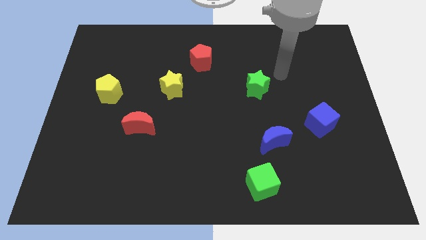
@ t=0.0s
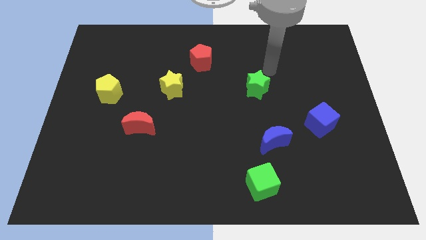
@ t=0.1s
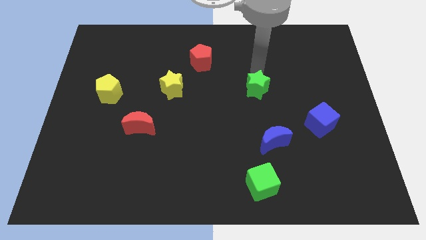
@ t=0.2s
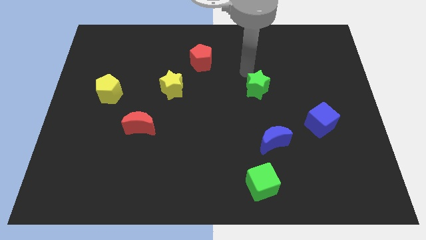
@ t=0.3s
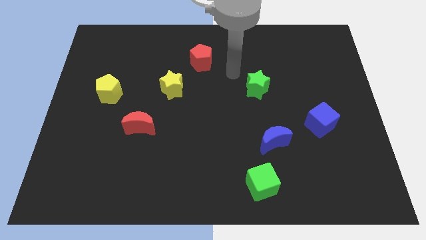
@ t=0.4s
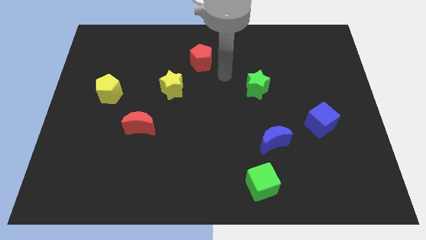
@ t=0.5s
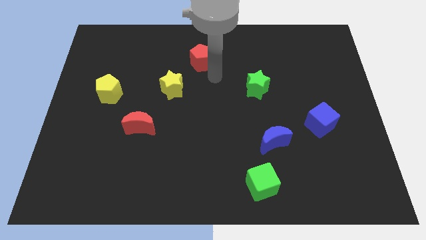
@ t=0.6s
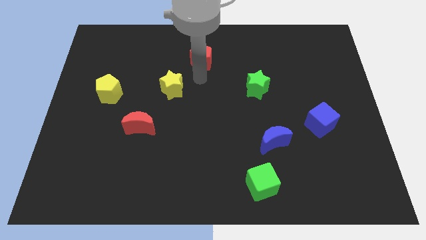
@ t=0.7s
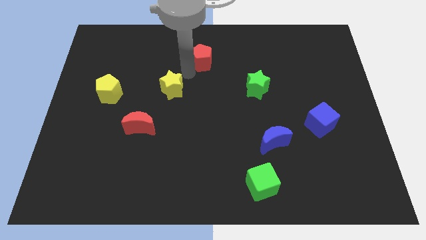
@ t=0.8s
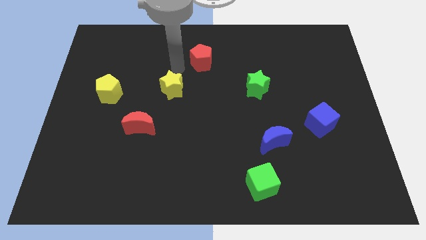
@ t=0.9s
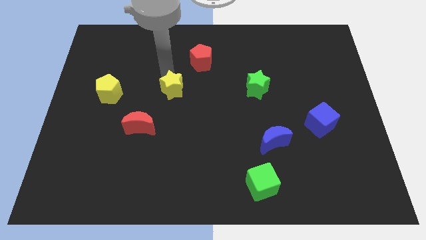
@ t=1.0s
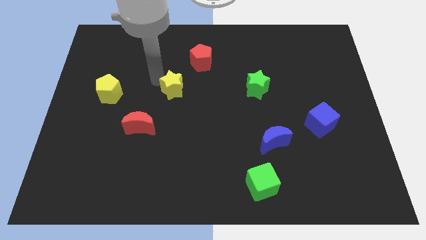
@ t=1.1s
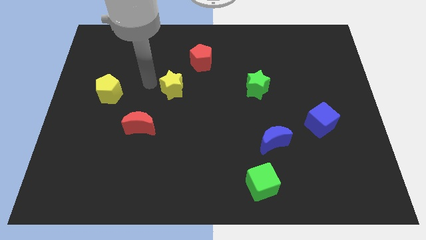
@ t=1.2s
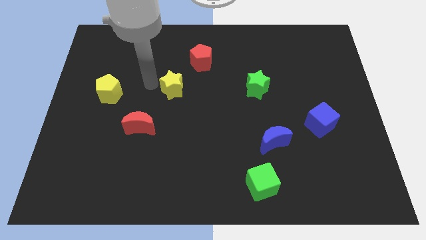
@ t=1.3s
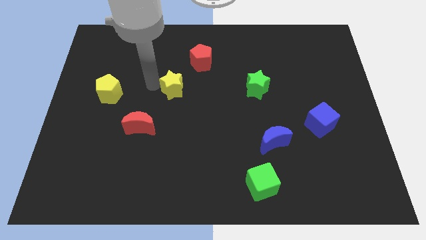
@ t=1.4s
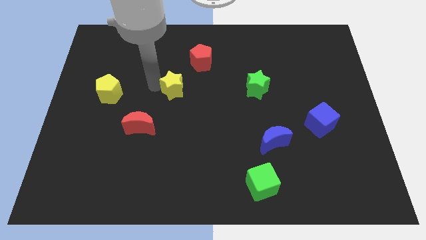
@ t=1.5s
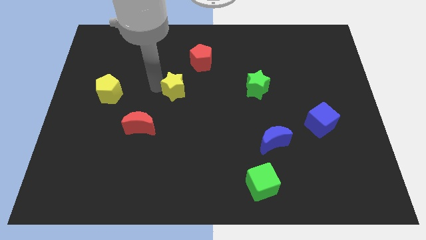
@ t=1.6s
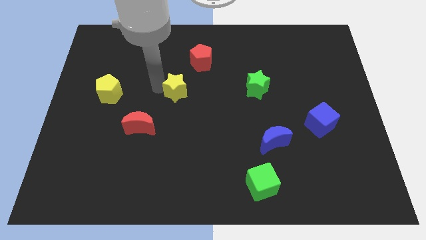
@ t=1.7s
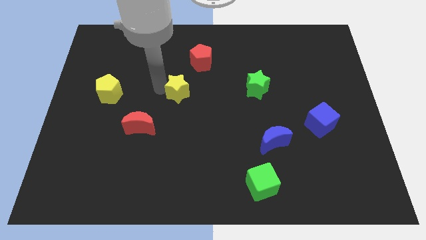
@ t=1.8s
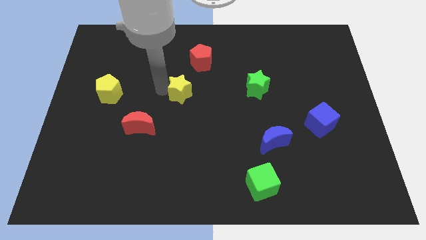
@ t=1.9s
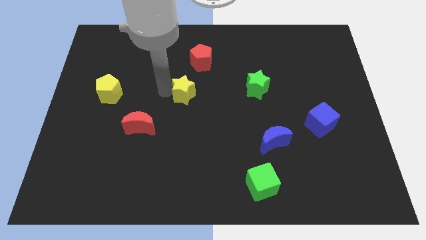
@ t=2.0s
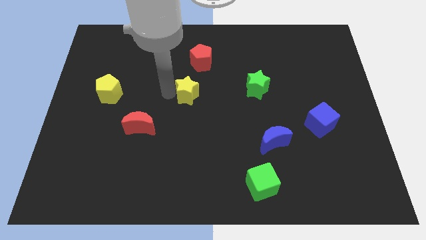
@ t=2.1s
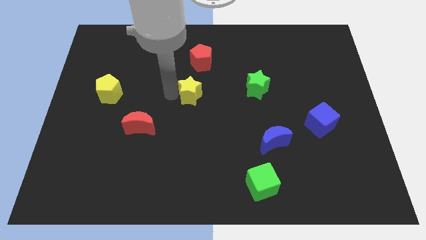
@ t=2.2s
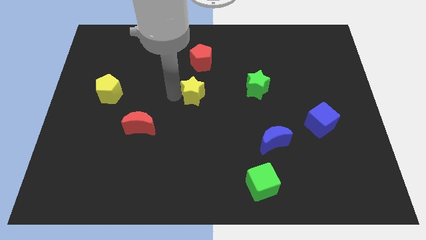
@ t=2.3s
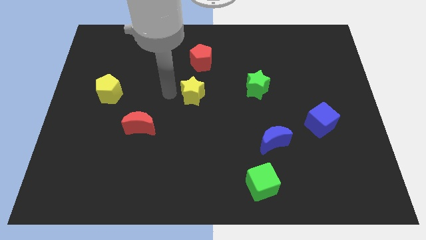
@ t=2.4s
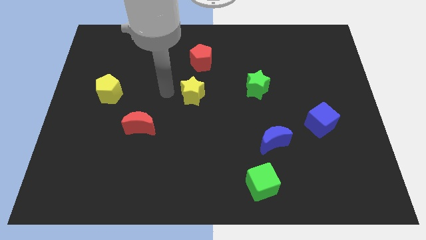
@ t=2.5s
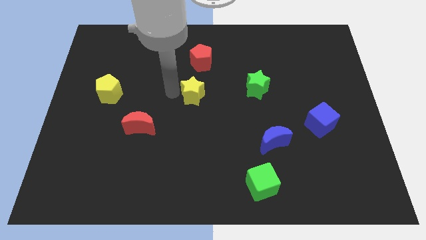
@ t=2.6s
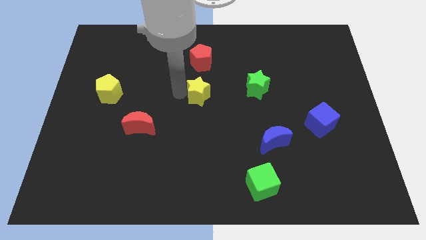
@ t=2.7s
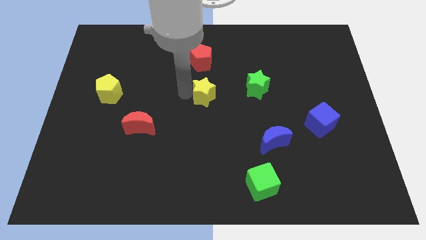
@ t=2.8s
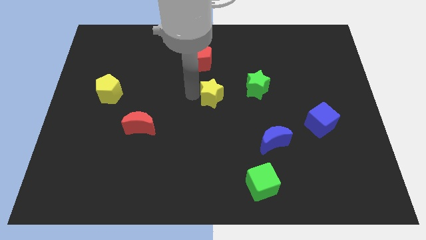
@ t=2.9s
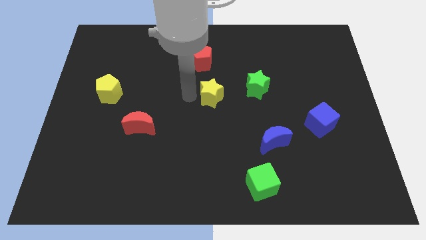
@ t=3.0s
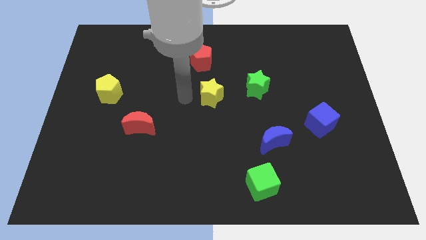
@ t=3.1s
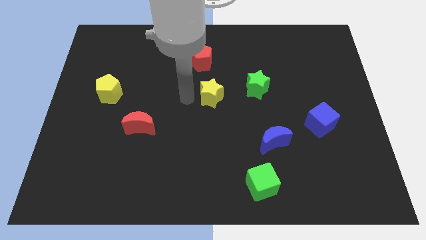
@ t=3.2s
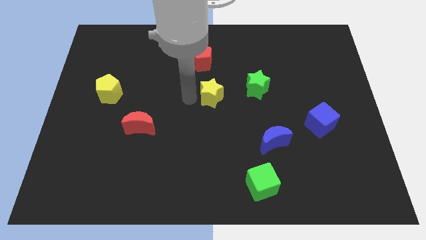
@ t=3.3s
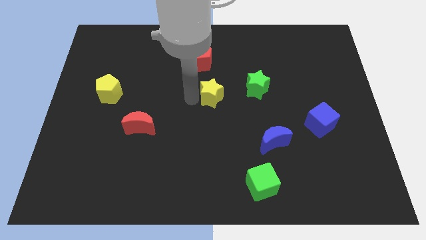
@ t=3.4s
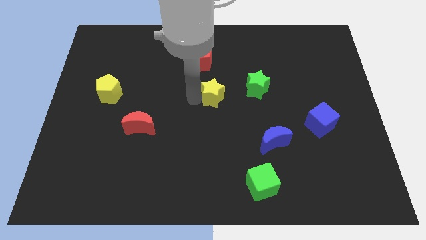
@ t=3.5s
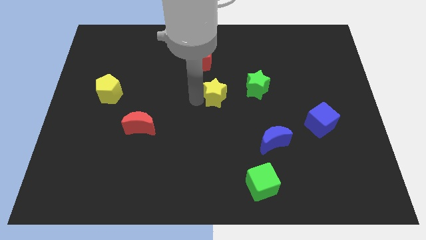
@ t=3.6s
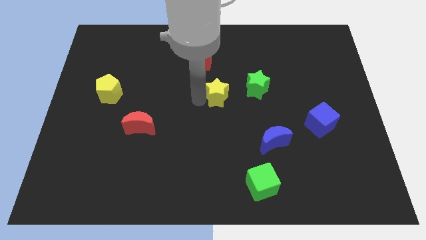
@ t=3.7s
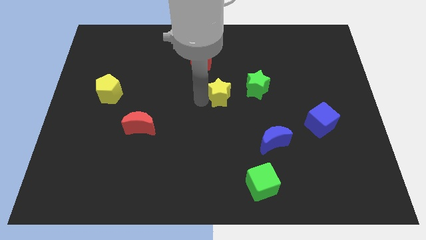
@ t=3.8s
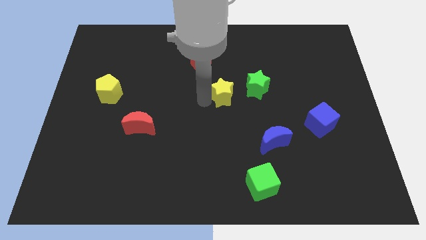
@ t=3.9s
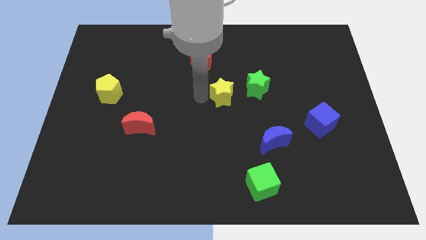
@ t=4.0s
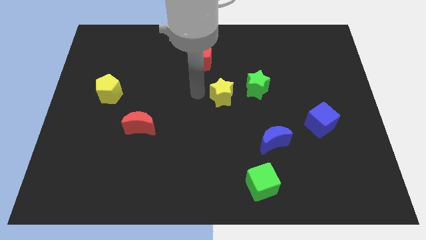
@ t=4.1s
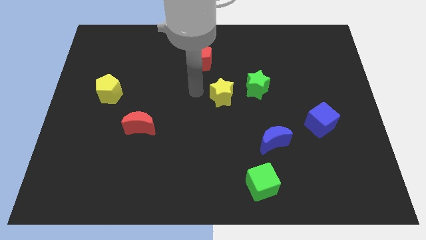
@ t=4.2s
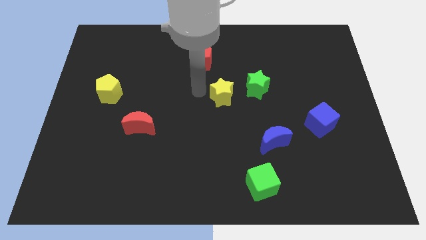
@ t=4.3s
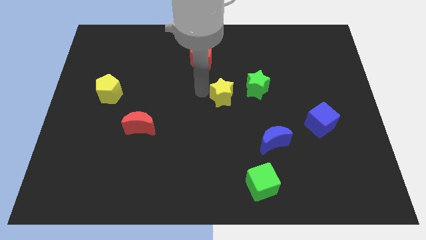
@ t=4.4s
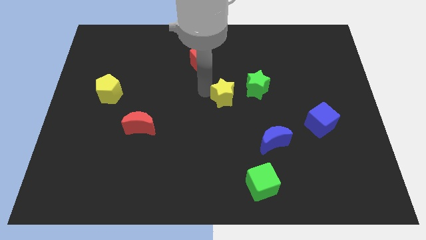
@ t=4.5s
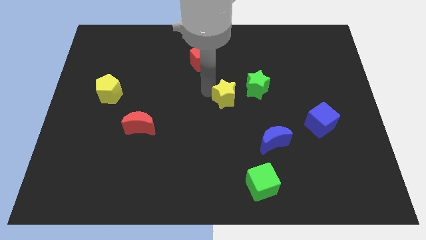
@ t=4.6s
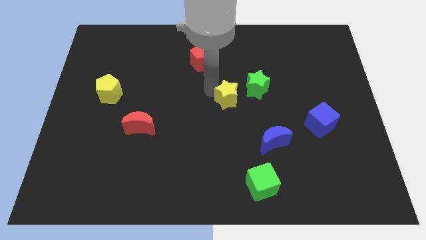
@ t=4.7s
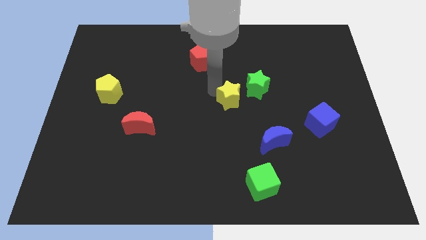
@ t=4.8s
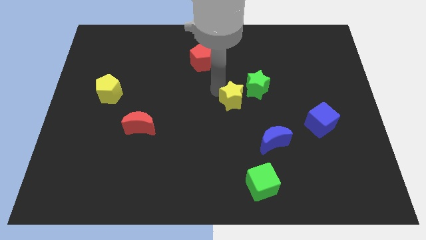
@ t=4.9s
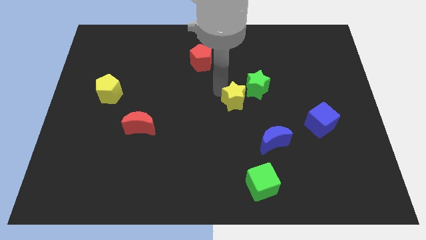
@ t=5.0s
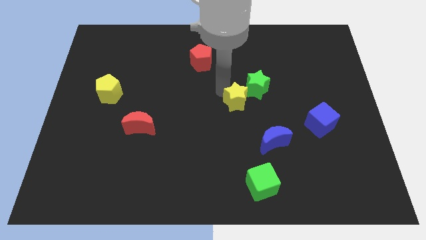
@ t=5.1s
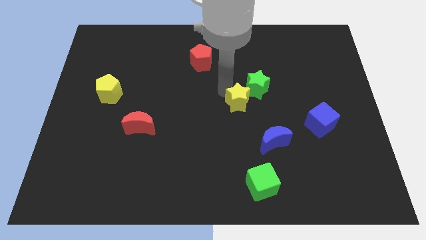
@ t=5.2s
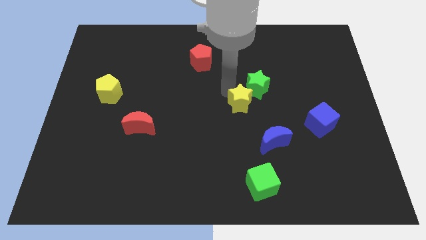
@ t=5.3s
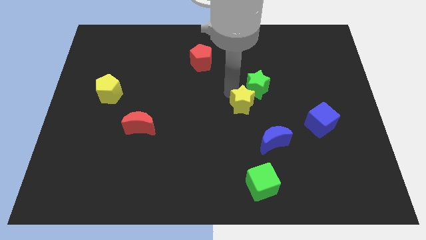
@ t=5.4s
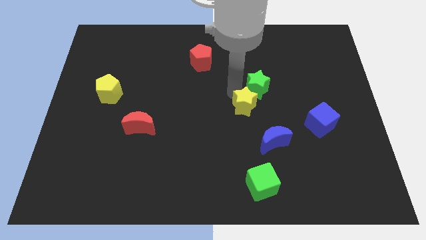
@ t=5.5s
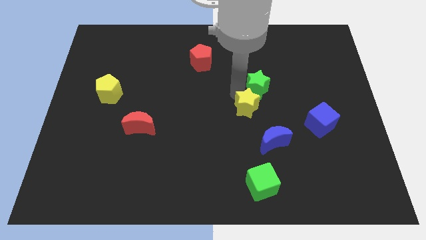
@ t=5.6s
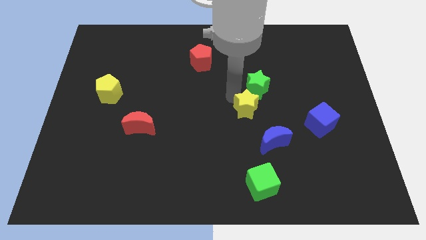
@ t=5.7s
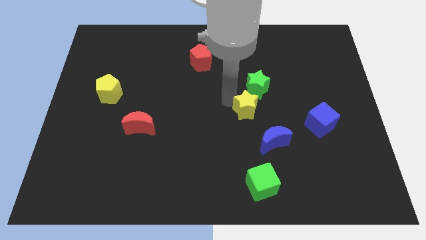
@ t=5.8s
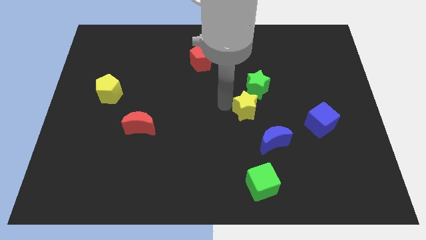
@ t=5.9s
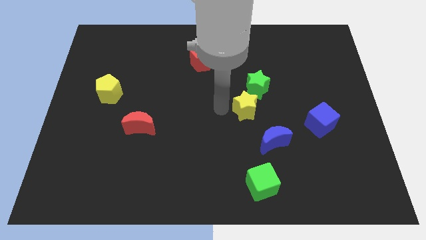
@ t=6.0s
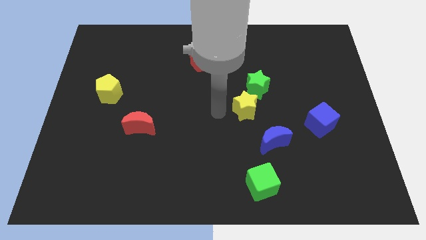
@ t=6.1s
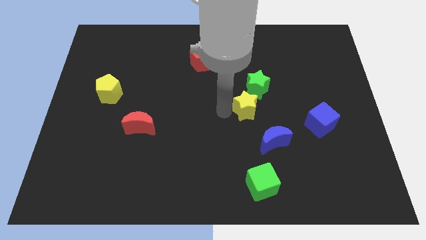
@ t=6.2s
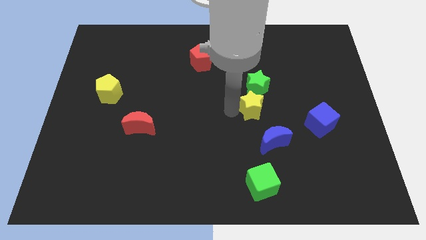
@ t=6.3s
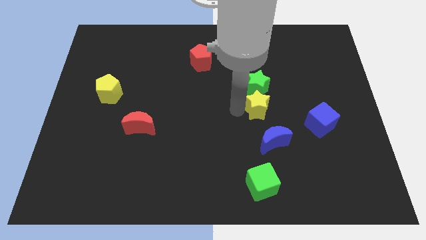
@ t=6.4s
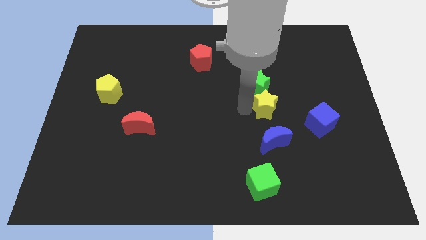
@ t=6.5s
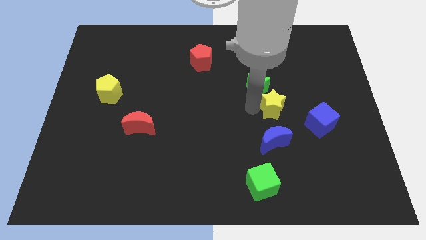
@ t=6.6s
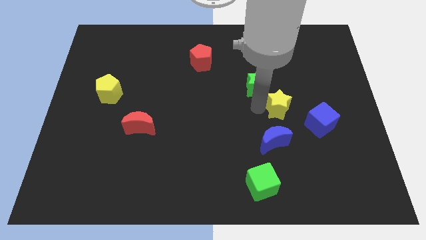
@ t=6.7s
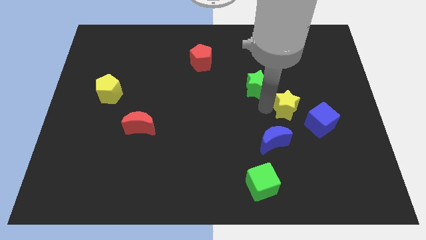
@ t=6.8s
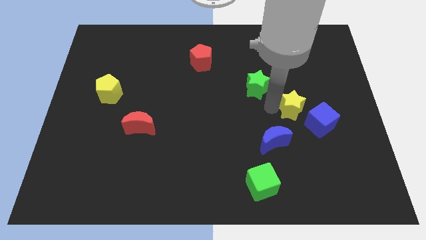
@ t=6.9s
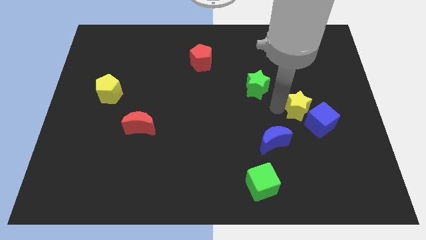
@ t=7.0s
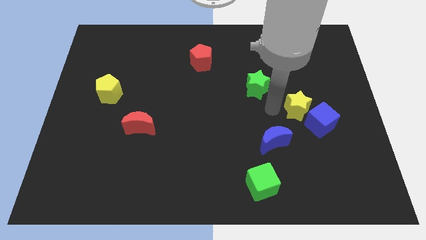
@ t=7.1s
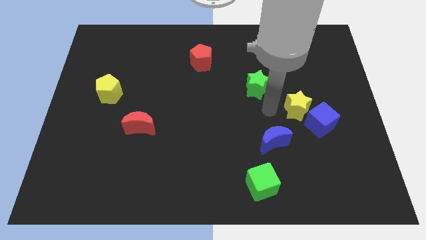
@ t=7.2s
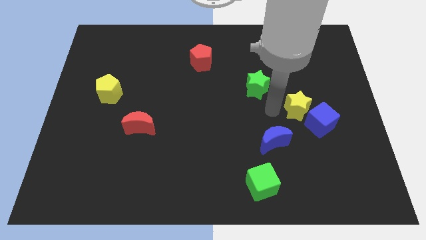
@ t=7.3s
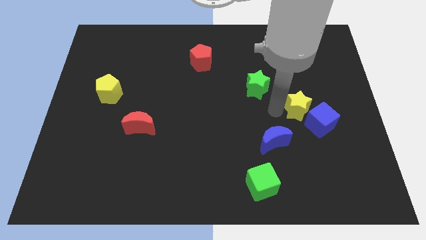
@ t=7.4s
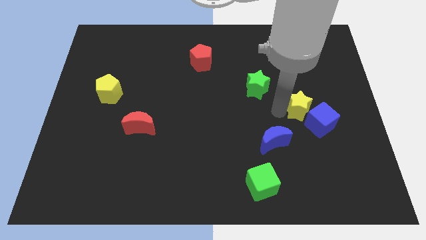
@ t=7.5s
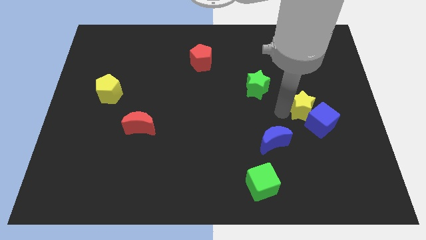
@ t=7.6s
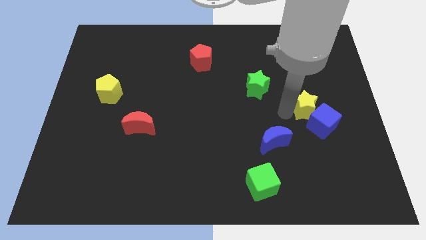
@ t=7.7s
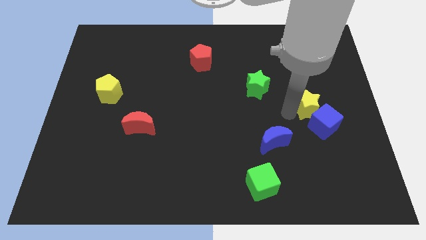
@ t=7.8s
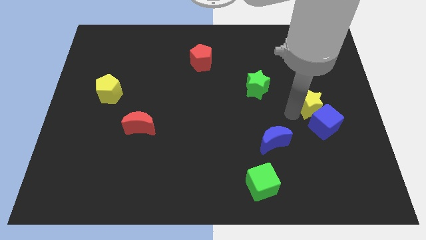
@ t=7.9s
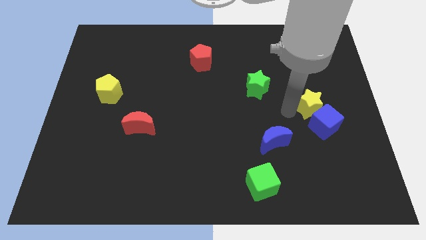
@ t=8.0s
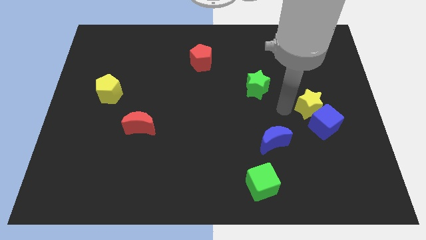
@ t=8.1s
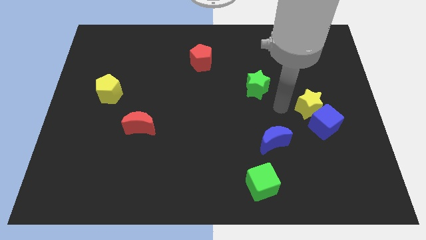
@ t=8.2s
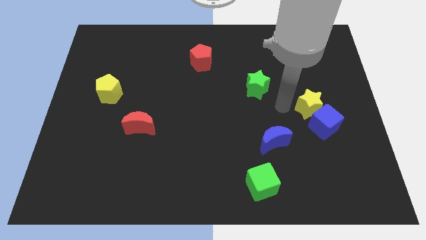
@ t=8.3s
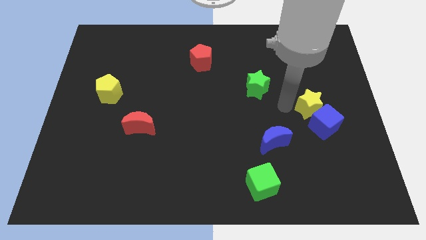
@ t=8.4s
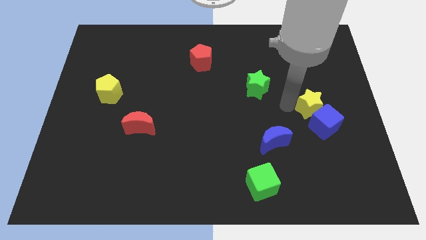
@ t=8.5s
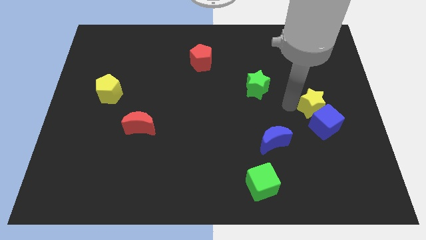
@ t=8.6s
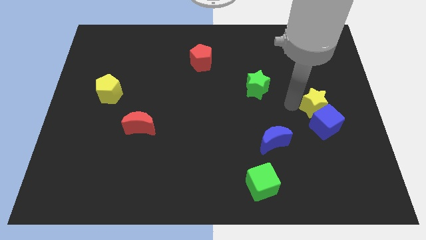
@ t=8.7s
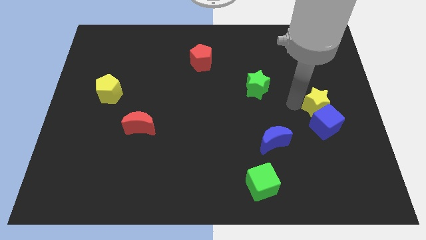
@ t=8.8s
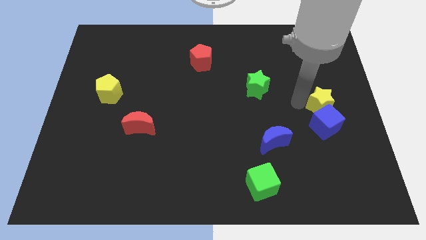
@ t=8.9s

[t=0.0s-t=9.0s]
put the yellow star to the right side of the board
